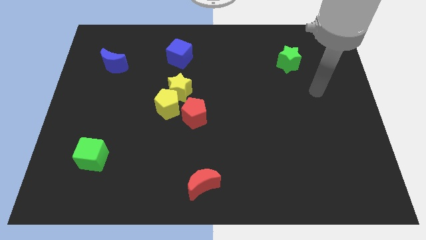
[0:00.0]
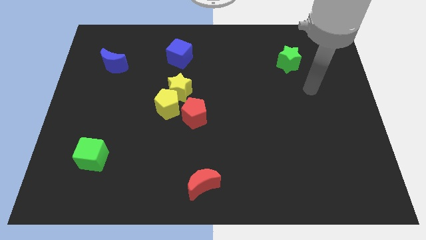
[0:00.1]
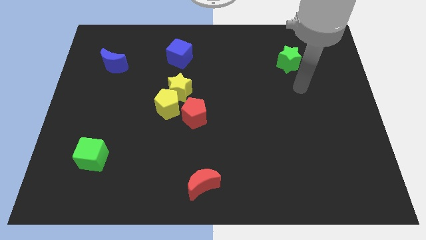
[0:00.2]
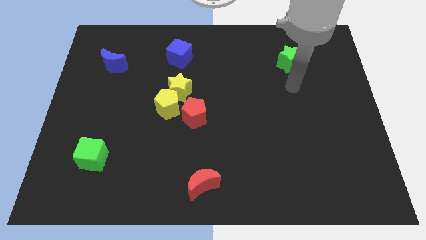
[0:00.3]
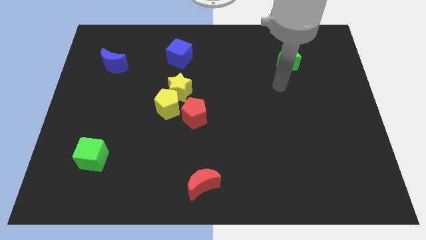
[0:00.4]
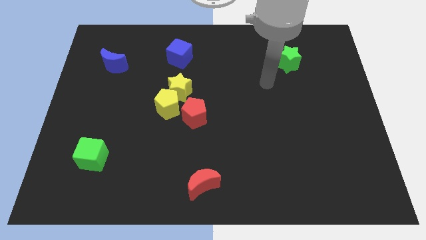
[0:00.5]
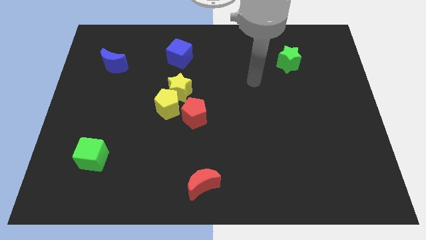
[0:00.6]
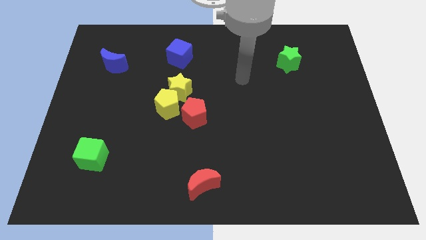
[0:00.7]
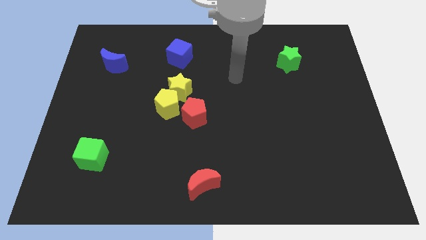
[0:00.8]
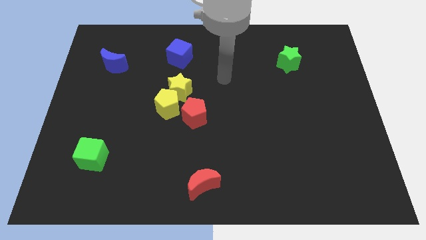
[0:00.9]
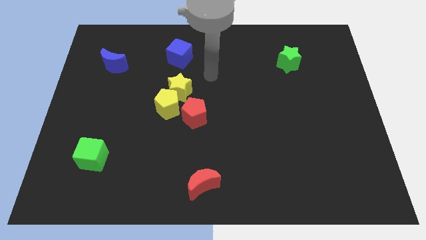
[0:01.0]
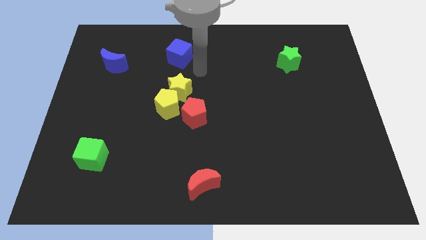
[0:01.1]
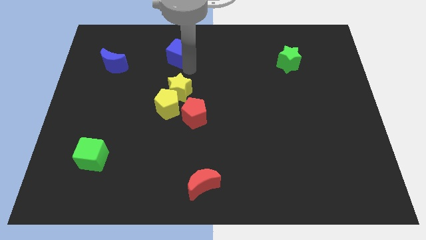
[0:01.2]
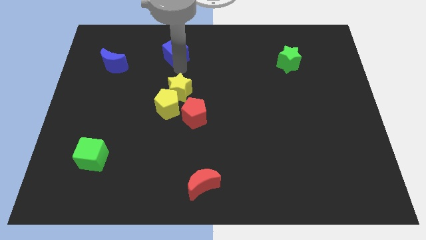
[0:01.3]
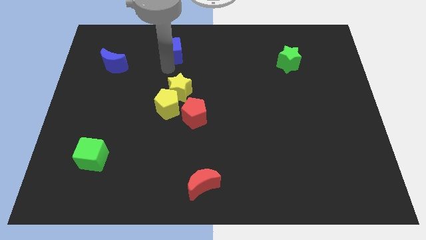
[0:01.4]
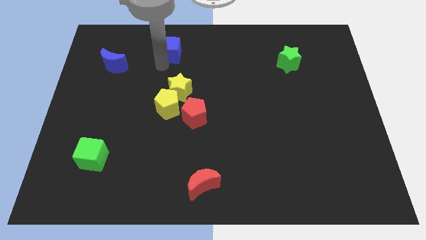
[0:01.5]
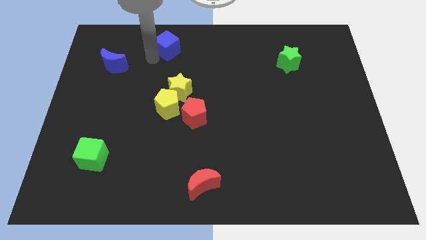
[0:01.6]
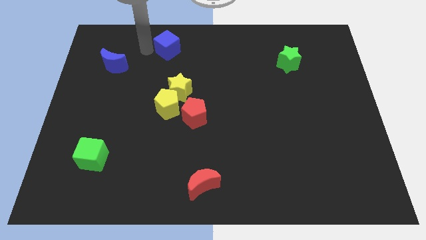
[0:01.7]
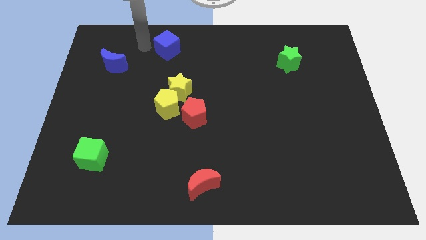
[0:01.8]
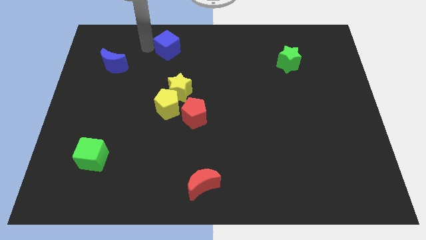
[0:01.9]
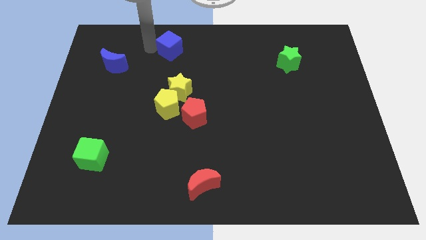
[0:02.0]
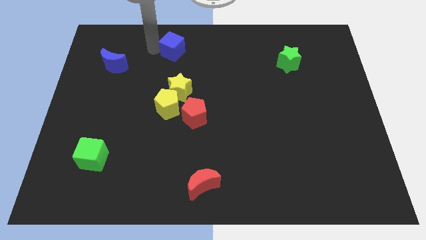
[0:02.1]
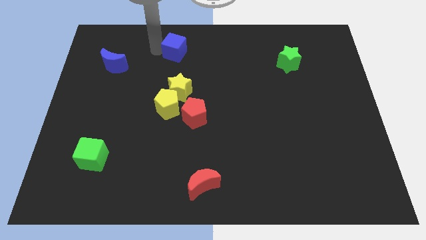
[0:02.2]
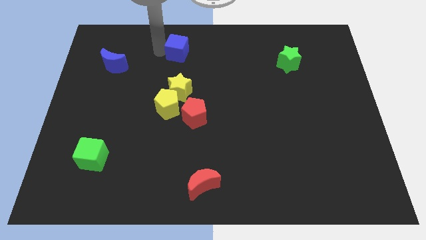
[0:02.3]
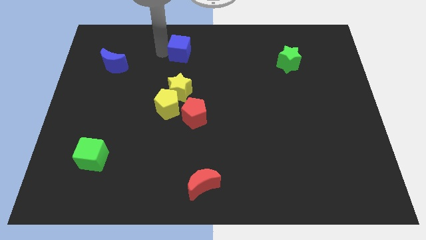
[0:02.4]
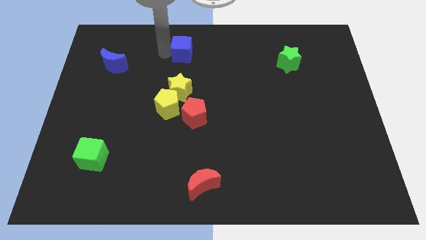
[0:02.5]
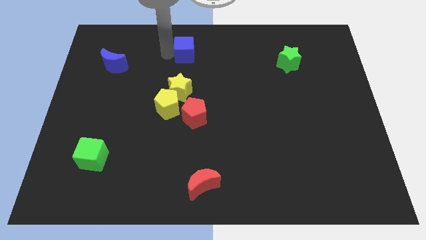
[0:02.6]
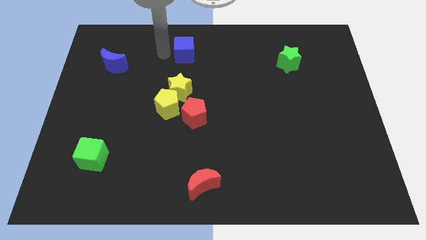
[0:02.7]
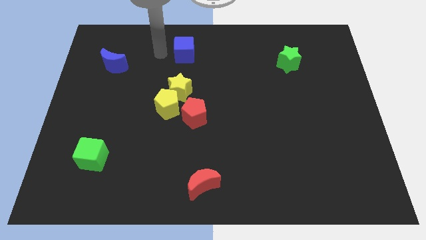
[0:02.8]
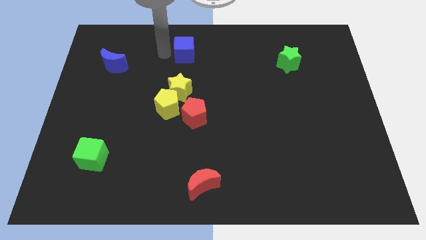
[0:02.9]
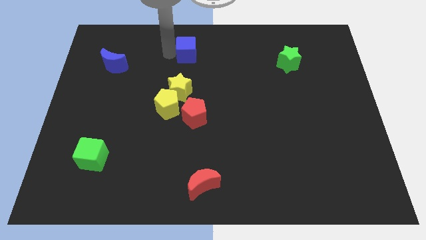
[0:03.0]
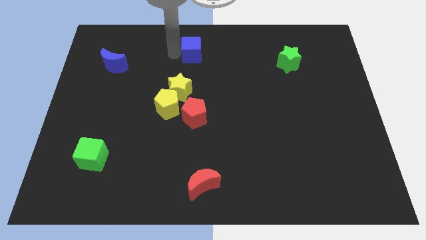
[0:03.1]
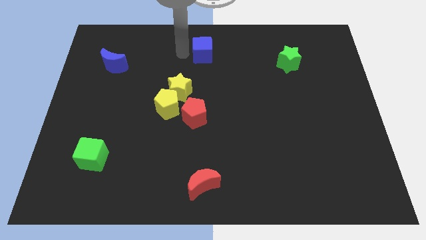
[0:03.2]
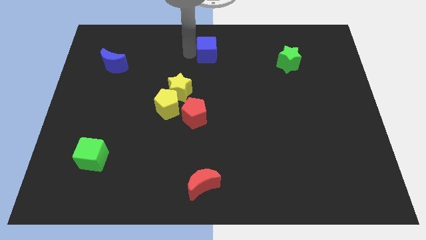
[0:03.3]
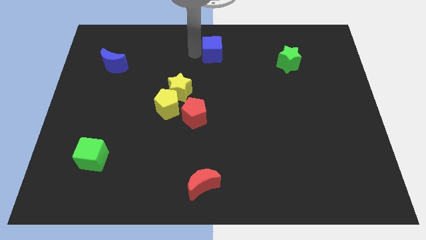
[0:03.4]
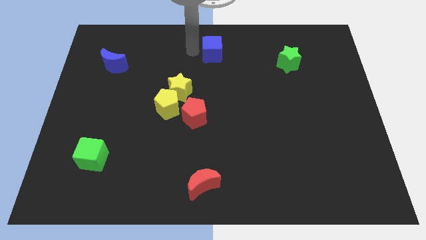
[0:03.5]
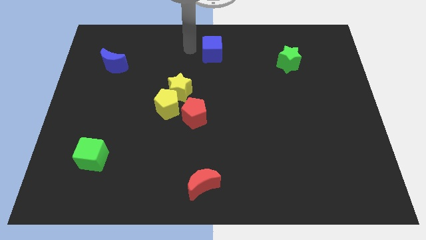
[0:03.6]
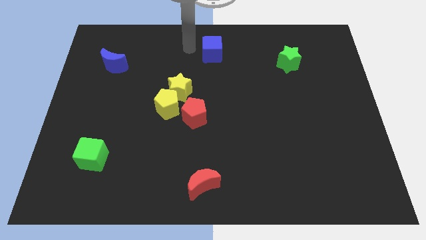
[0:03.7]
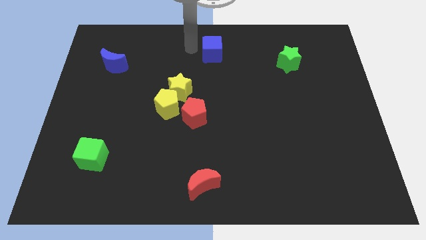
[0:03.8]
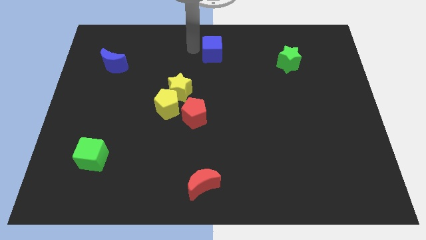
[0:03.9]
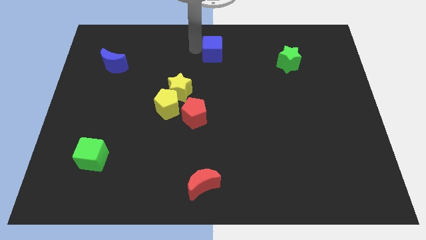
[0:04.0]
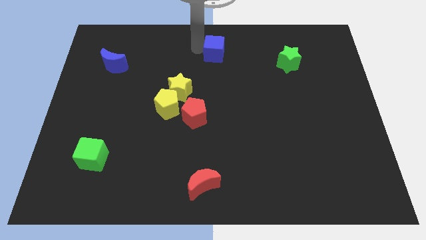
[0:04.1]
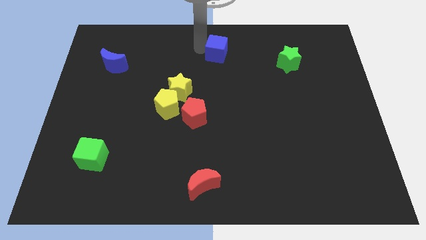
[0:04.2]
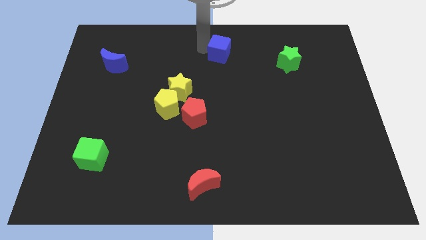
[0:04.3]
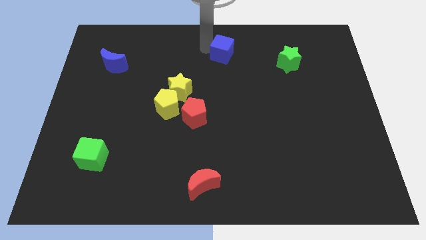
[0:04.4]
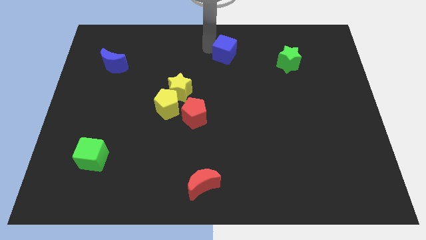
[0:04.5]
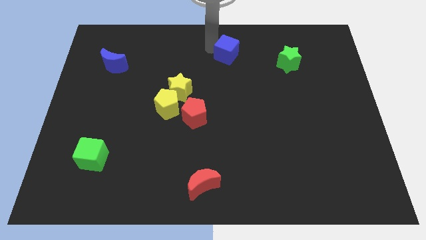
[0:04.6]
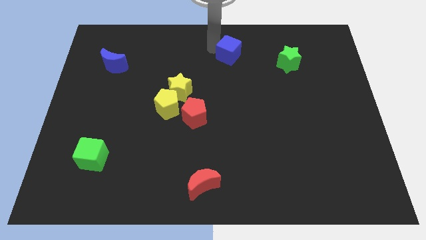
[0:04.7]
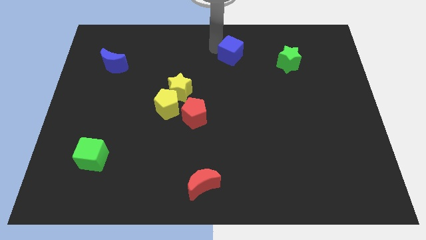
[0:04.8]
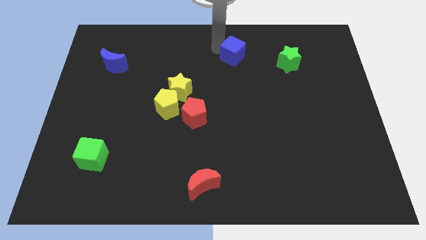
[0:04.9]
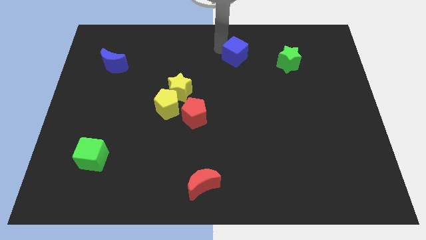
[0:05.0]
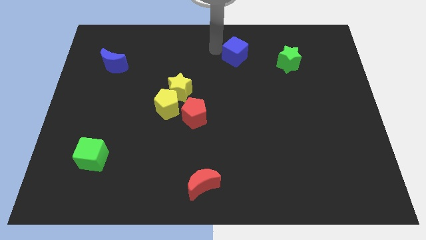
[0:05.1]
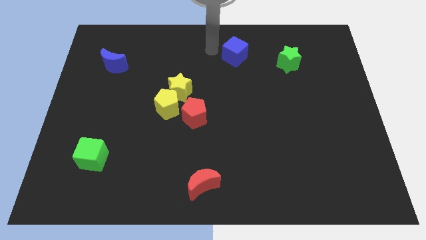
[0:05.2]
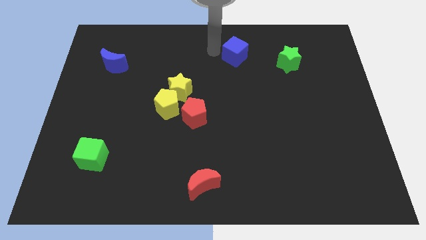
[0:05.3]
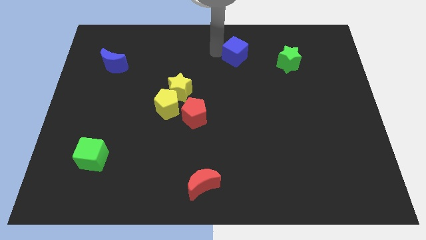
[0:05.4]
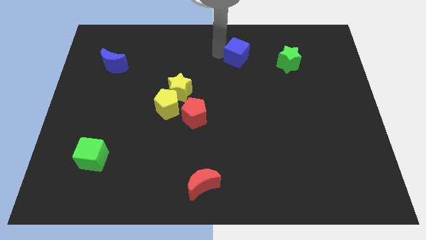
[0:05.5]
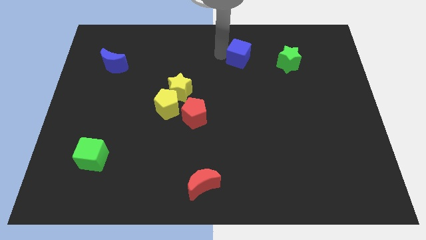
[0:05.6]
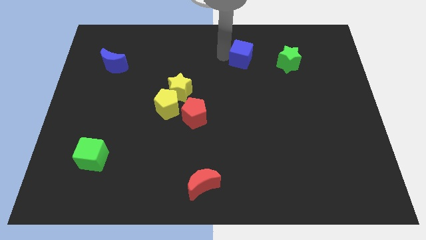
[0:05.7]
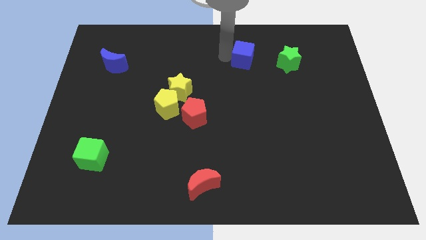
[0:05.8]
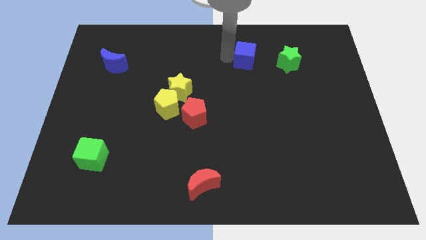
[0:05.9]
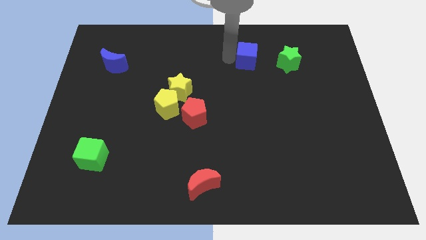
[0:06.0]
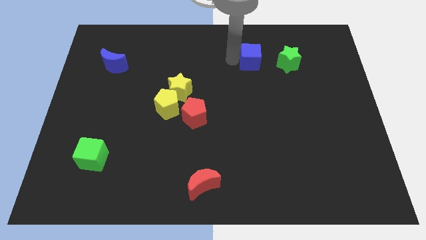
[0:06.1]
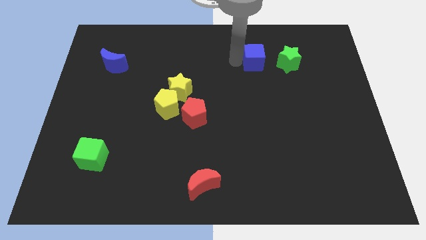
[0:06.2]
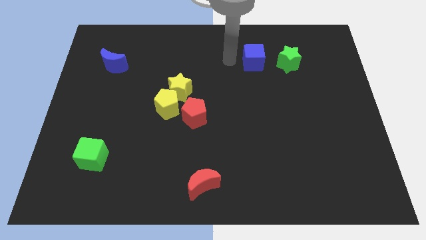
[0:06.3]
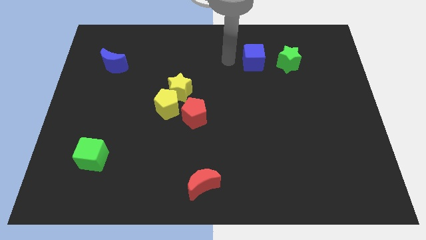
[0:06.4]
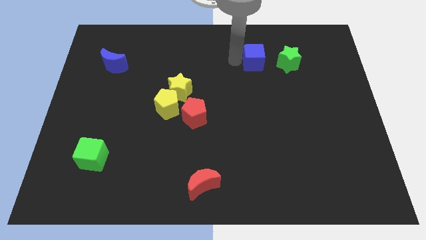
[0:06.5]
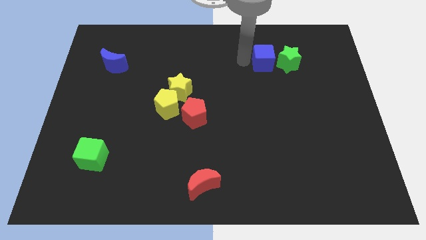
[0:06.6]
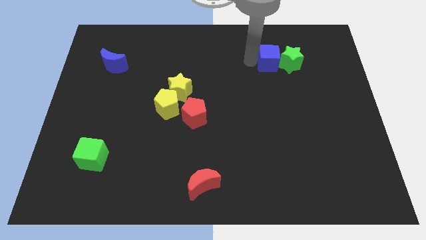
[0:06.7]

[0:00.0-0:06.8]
move the blue cube close to the green star
